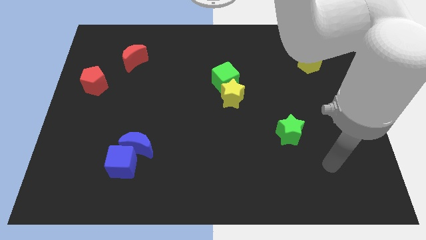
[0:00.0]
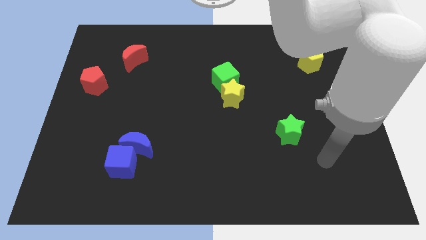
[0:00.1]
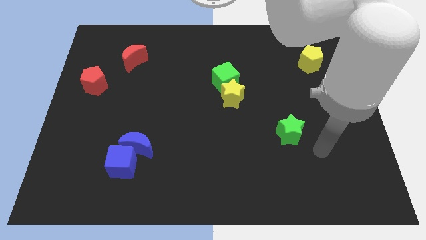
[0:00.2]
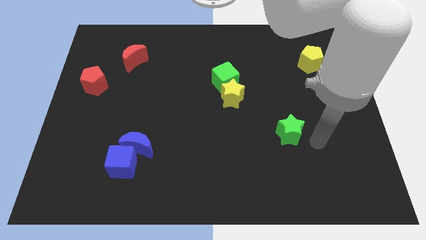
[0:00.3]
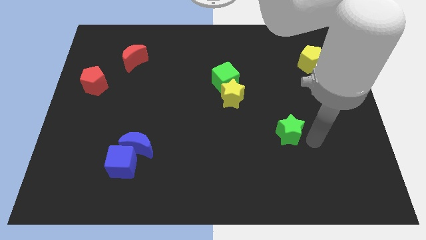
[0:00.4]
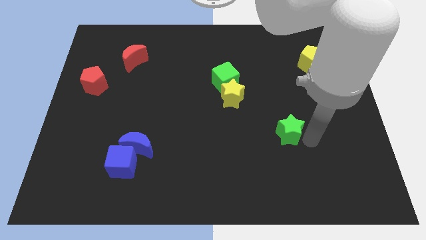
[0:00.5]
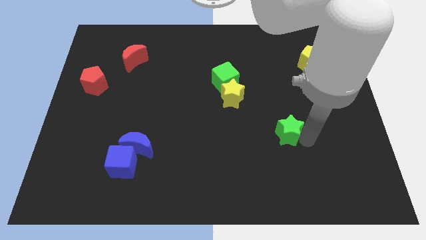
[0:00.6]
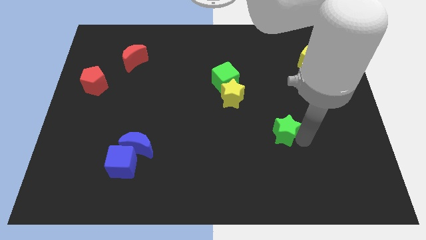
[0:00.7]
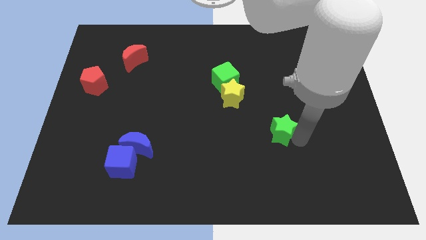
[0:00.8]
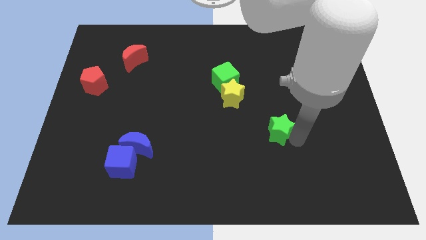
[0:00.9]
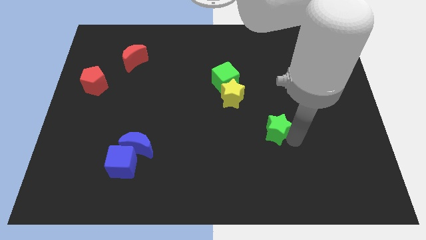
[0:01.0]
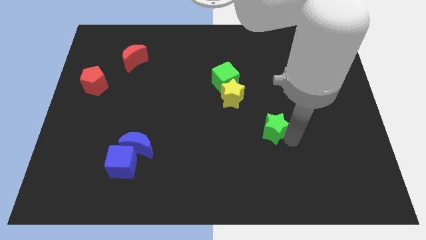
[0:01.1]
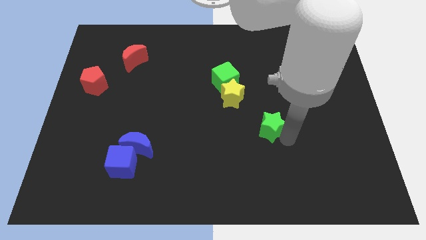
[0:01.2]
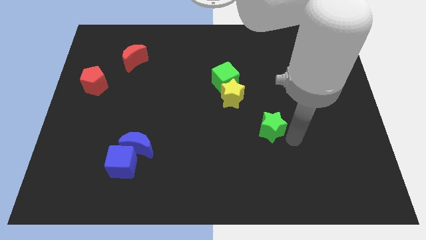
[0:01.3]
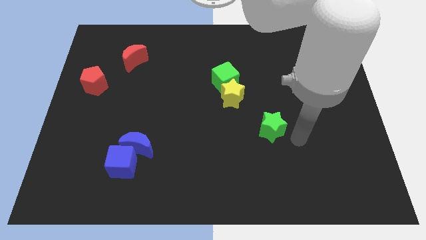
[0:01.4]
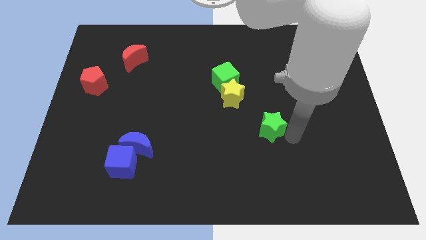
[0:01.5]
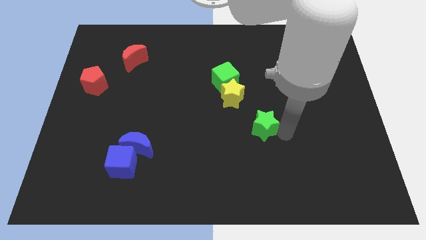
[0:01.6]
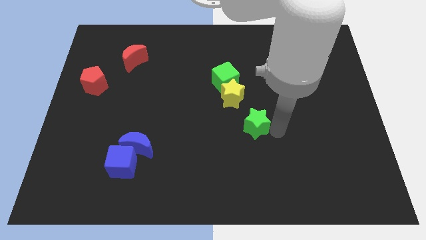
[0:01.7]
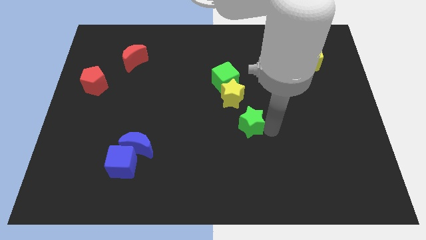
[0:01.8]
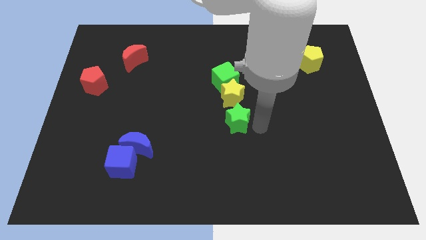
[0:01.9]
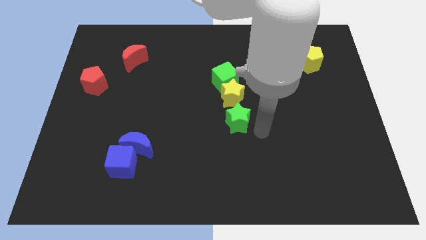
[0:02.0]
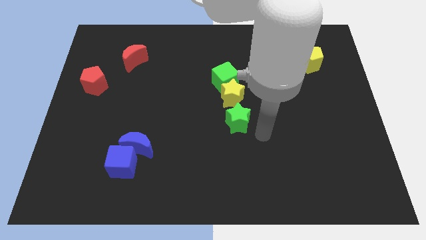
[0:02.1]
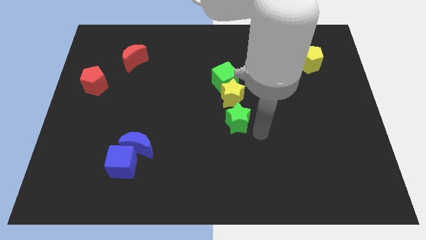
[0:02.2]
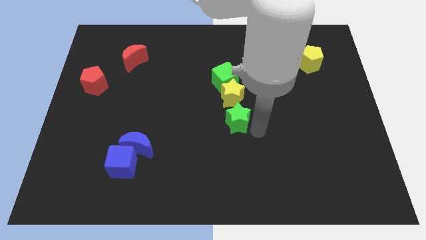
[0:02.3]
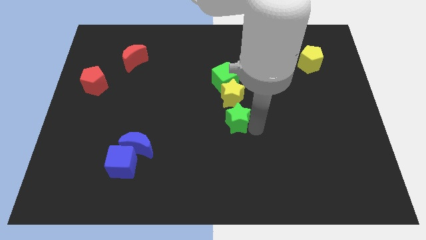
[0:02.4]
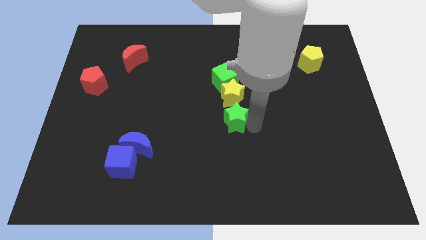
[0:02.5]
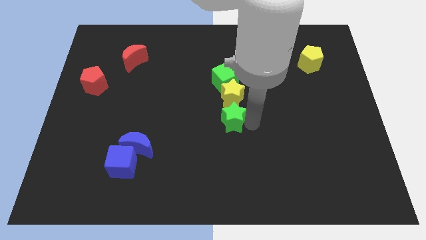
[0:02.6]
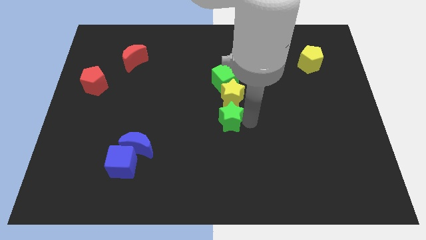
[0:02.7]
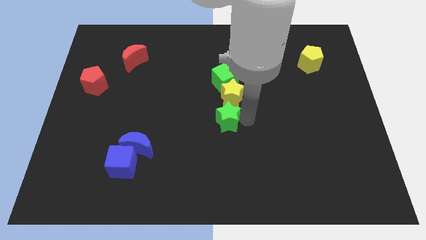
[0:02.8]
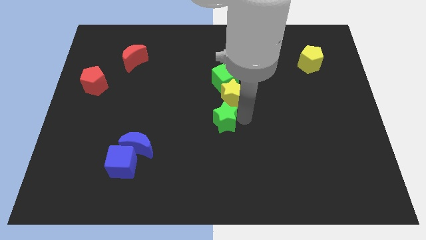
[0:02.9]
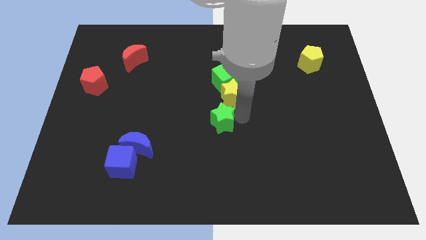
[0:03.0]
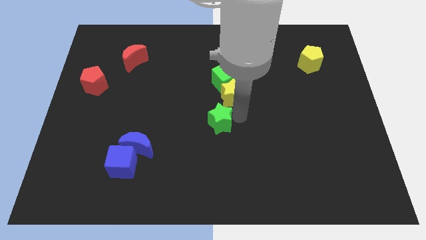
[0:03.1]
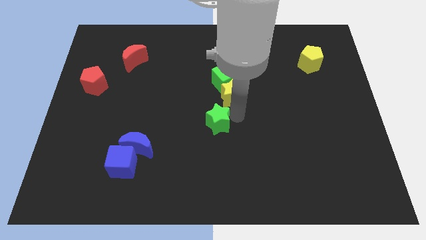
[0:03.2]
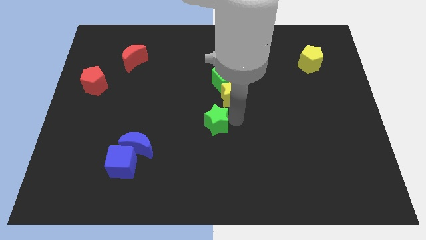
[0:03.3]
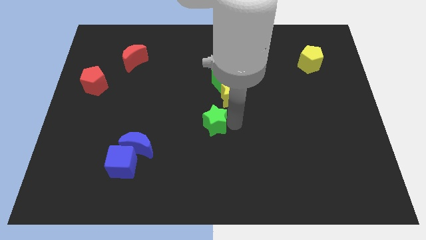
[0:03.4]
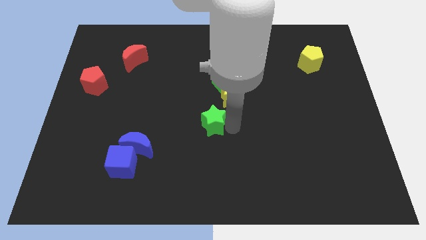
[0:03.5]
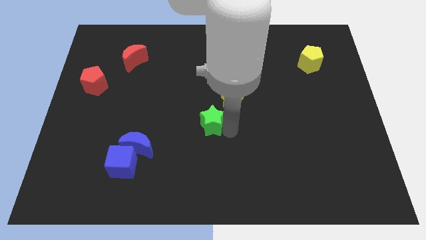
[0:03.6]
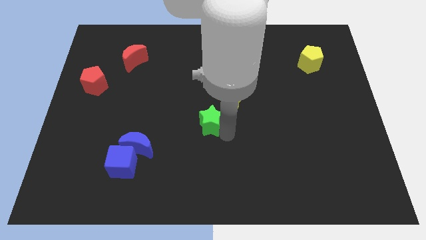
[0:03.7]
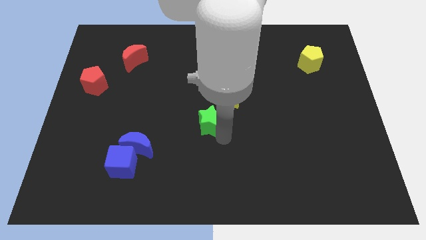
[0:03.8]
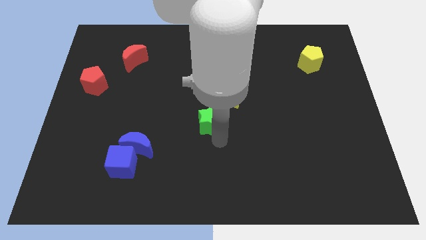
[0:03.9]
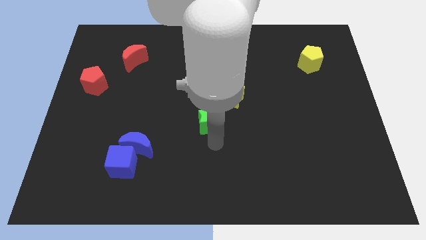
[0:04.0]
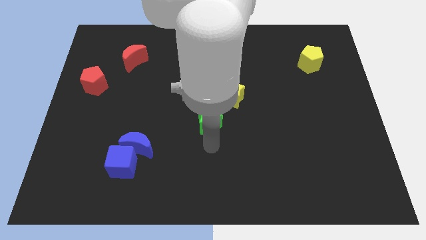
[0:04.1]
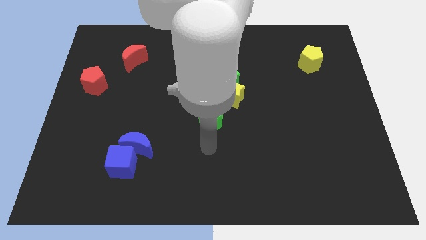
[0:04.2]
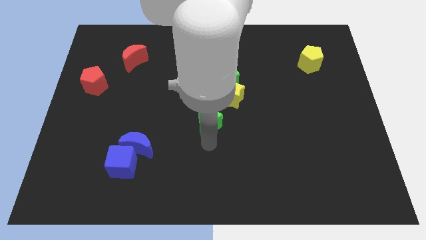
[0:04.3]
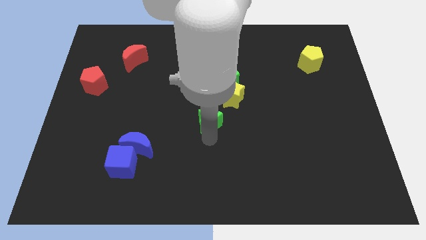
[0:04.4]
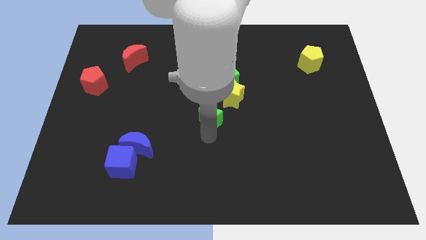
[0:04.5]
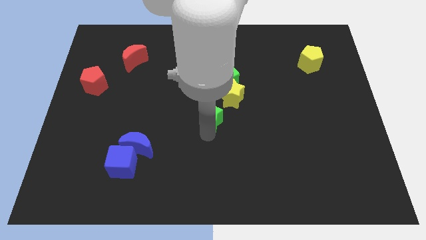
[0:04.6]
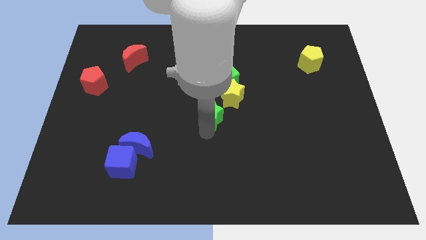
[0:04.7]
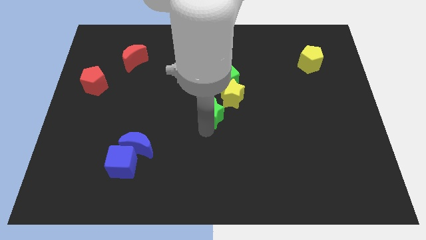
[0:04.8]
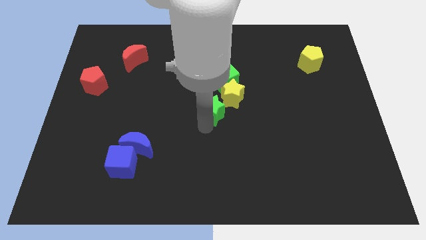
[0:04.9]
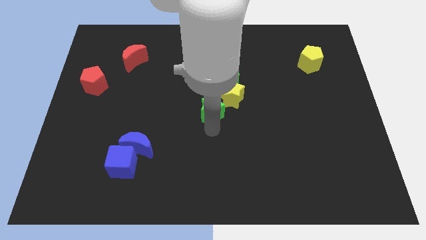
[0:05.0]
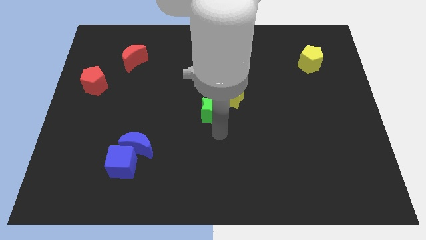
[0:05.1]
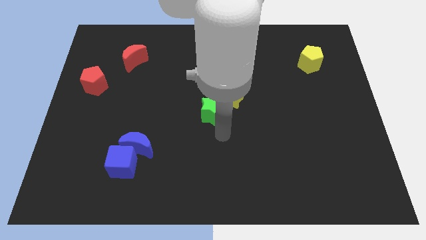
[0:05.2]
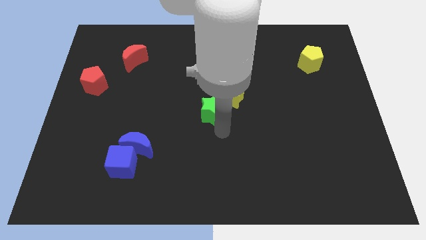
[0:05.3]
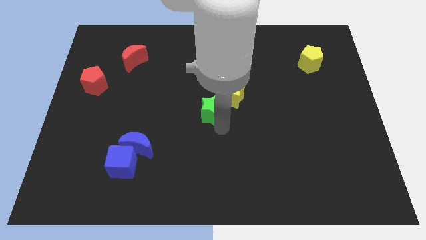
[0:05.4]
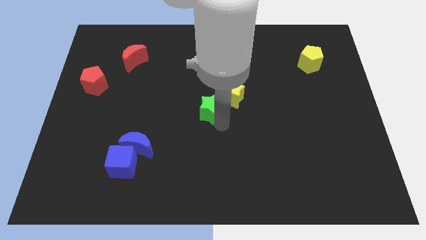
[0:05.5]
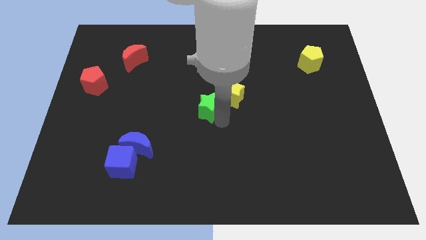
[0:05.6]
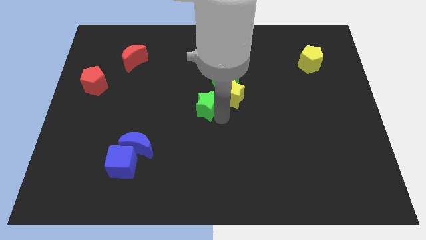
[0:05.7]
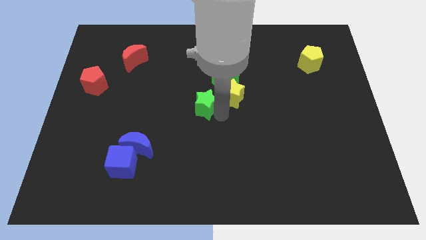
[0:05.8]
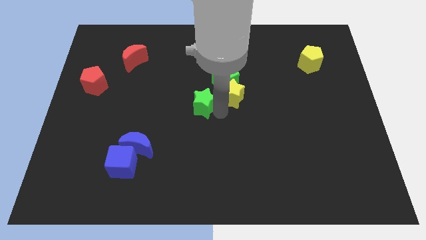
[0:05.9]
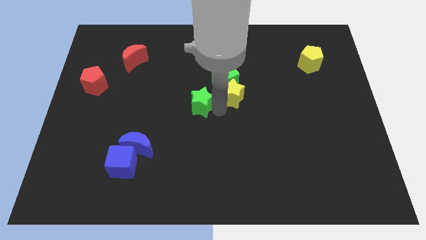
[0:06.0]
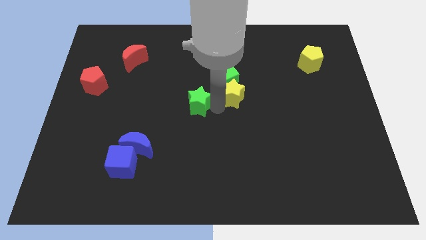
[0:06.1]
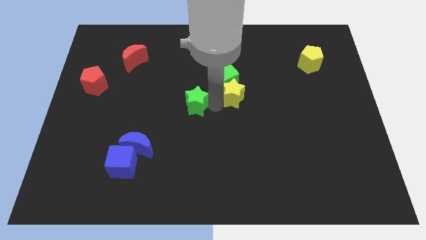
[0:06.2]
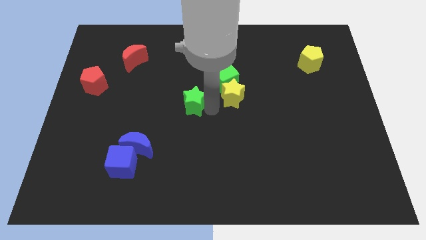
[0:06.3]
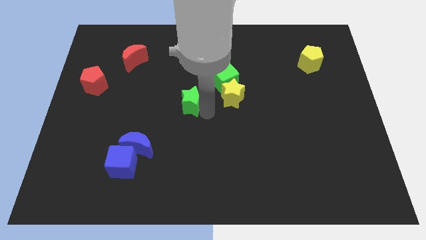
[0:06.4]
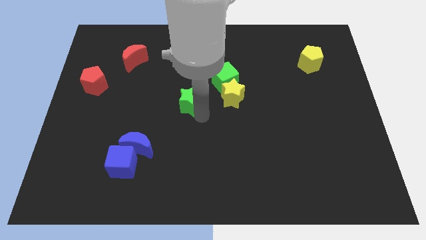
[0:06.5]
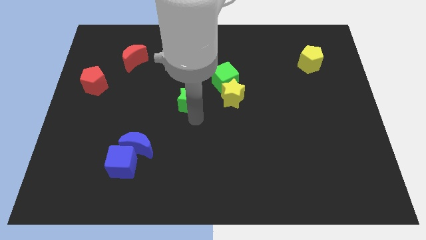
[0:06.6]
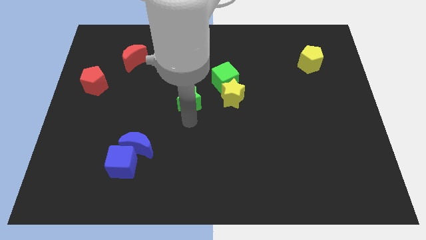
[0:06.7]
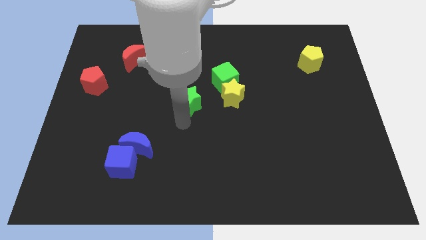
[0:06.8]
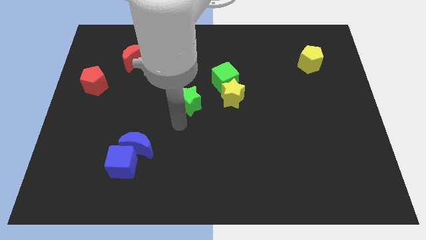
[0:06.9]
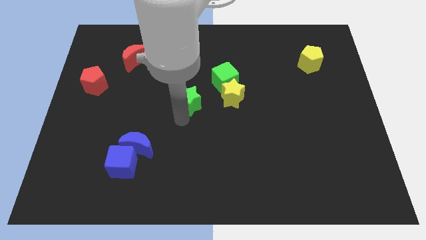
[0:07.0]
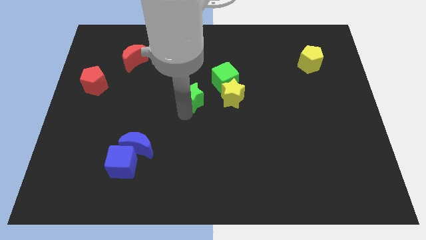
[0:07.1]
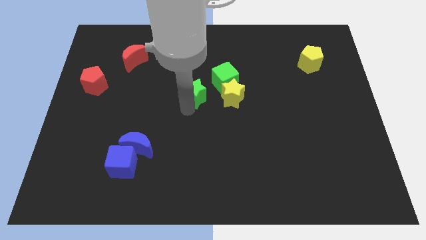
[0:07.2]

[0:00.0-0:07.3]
move the green star up and left diagonally
